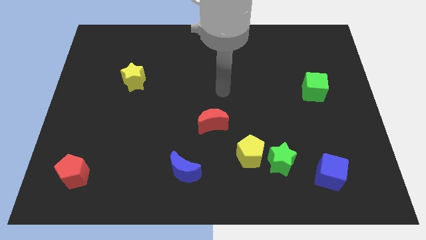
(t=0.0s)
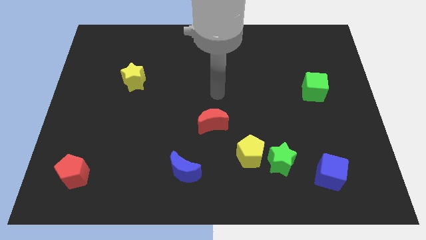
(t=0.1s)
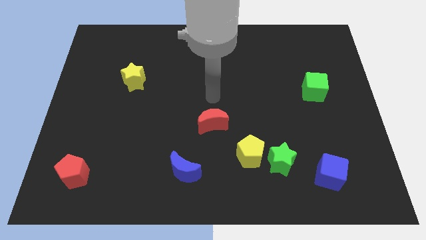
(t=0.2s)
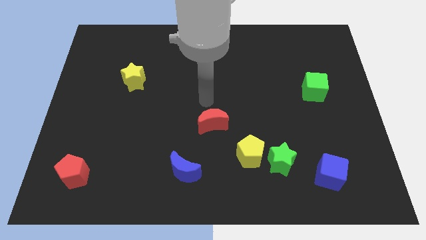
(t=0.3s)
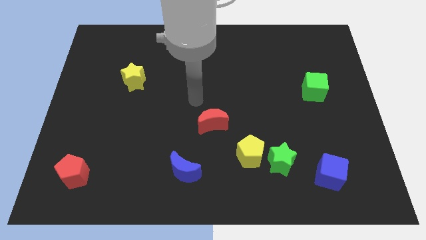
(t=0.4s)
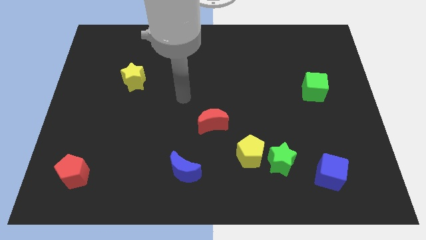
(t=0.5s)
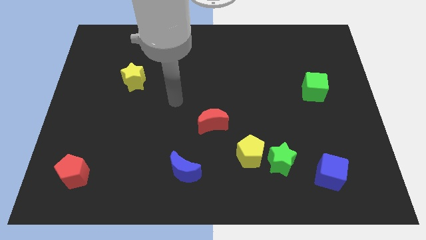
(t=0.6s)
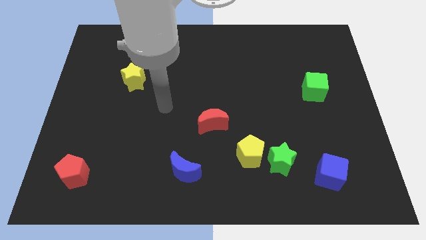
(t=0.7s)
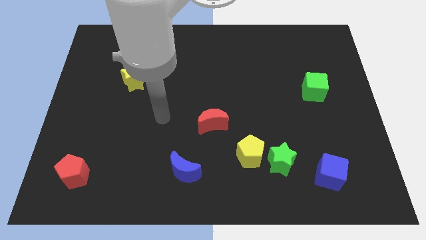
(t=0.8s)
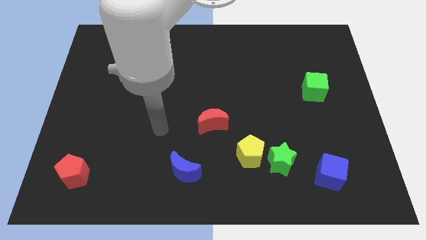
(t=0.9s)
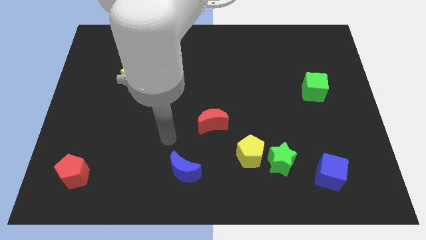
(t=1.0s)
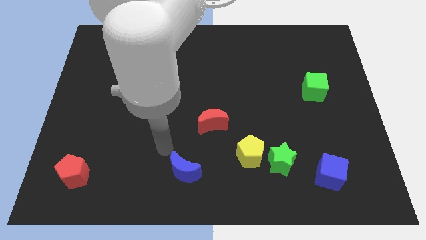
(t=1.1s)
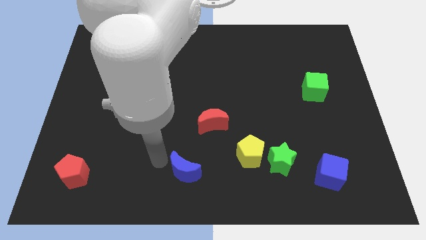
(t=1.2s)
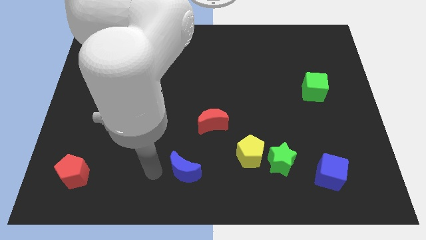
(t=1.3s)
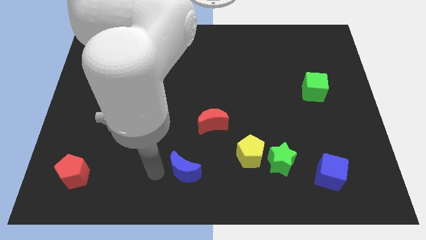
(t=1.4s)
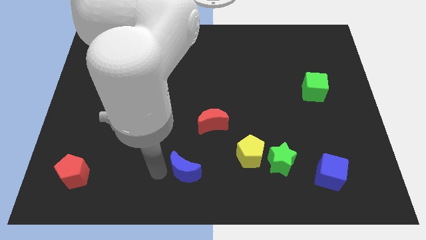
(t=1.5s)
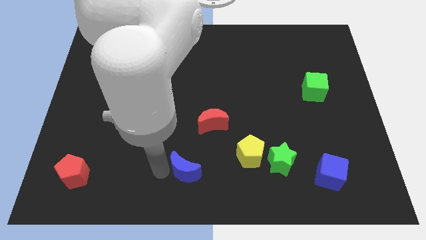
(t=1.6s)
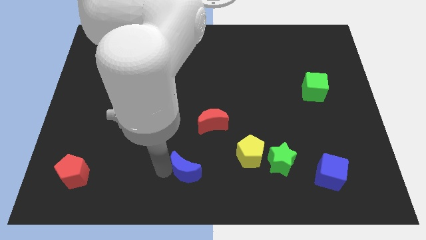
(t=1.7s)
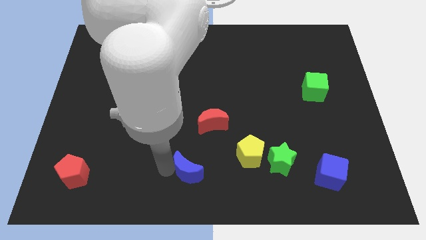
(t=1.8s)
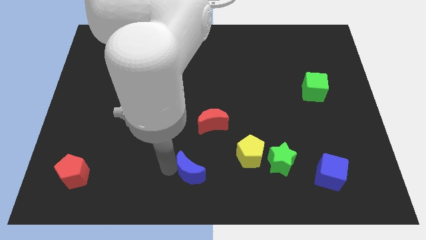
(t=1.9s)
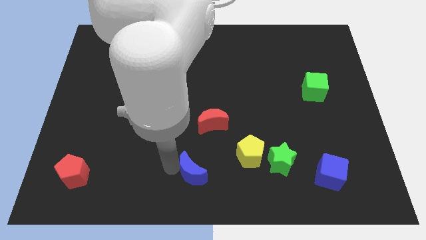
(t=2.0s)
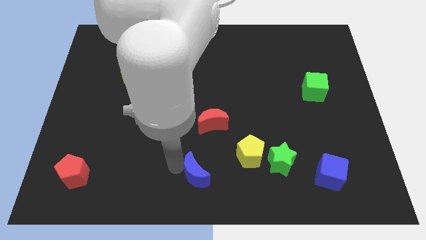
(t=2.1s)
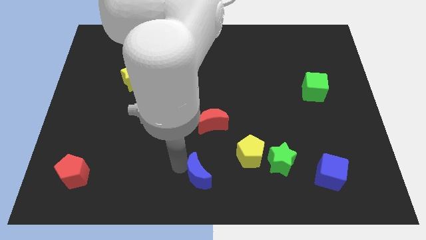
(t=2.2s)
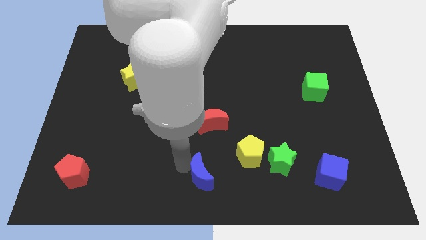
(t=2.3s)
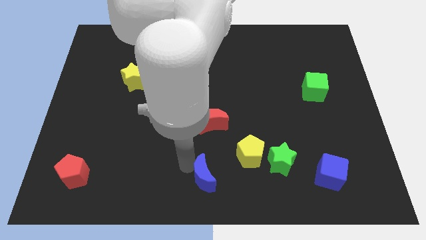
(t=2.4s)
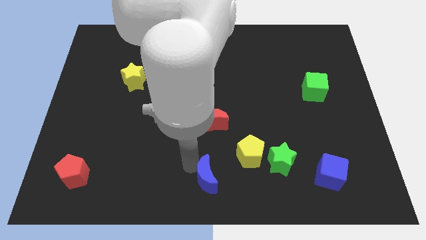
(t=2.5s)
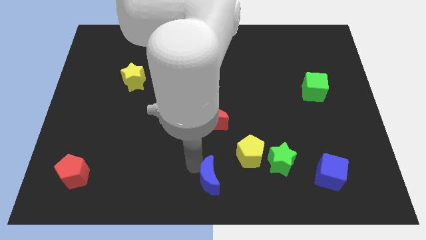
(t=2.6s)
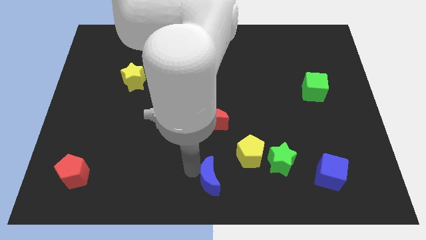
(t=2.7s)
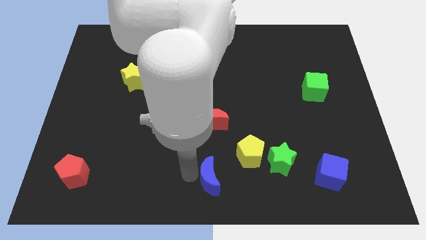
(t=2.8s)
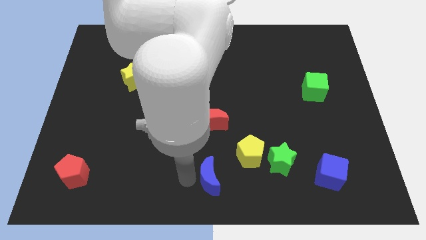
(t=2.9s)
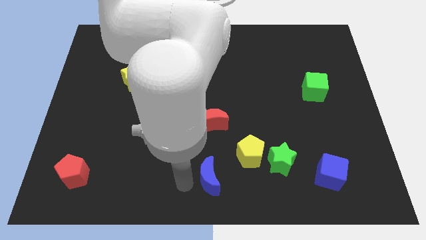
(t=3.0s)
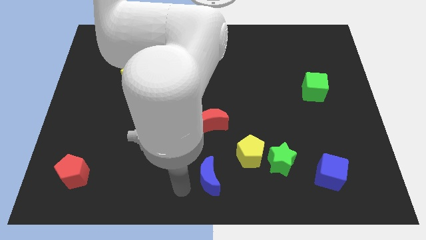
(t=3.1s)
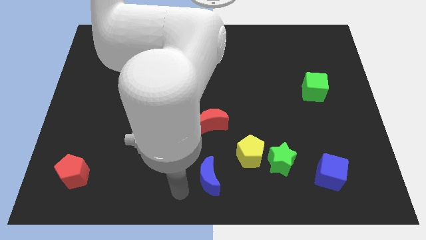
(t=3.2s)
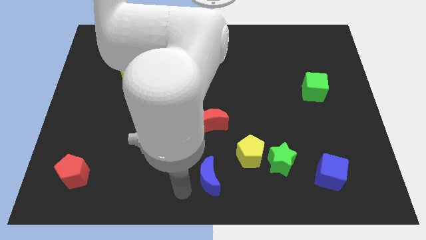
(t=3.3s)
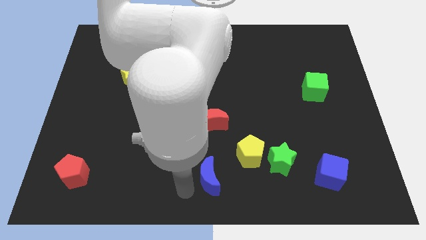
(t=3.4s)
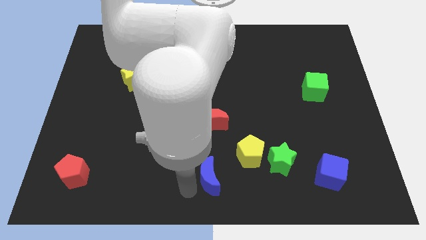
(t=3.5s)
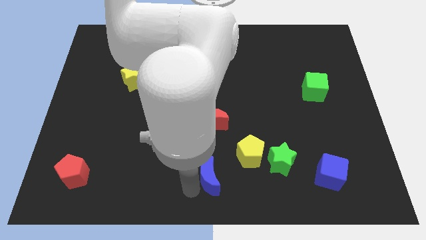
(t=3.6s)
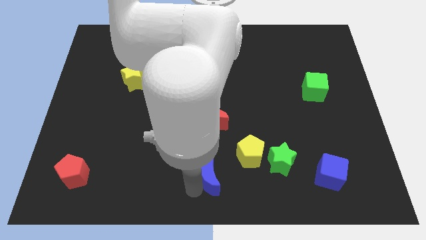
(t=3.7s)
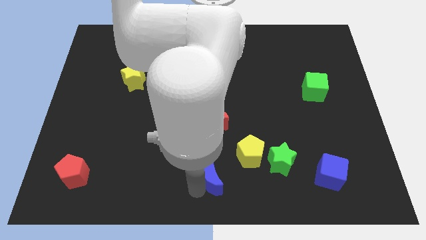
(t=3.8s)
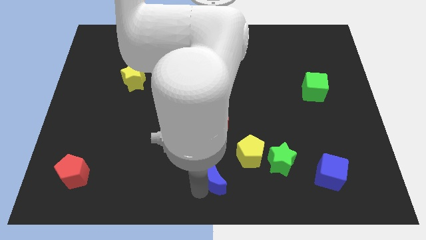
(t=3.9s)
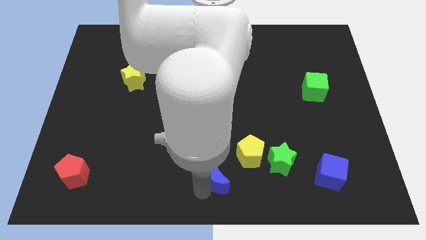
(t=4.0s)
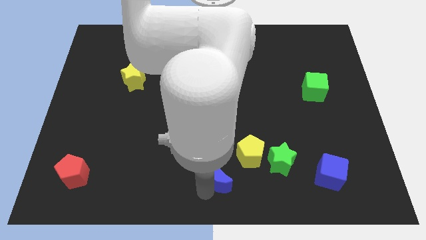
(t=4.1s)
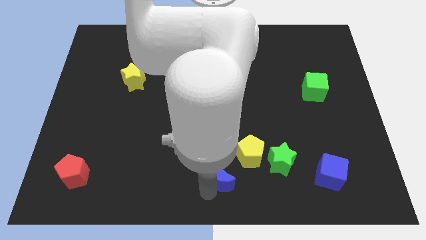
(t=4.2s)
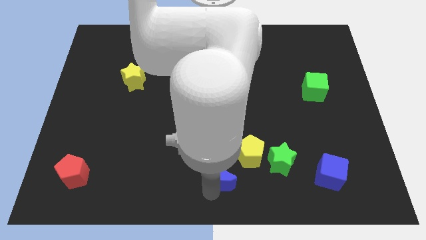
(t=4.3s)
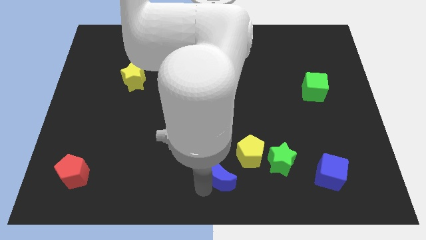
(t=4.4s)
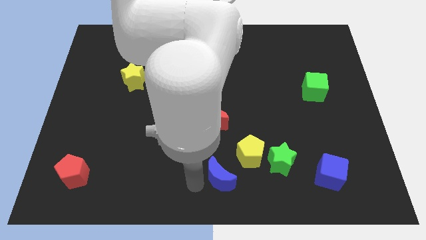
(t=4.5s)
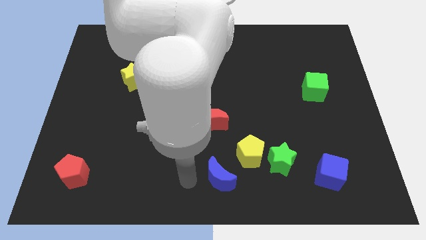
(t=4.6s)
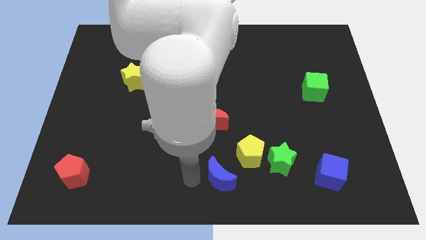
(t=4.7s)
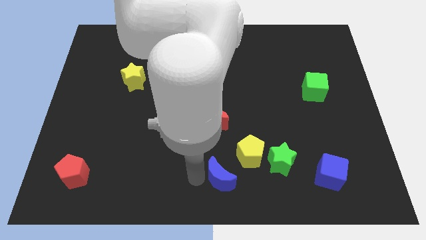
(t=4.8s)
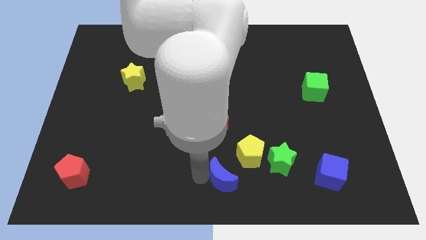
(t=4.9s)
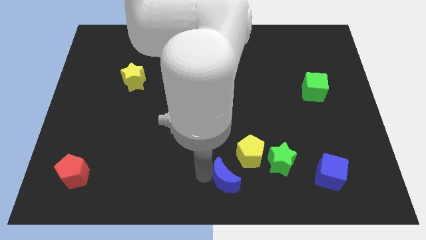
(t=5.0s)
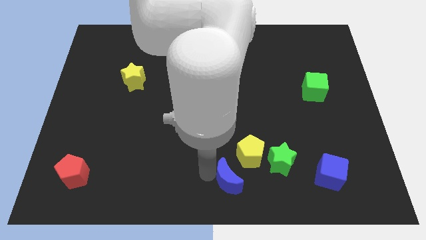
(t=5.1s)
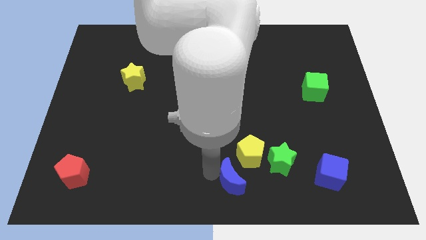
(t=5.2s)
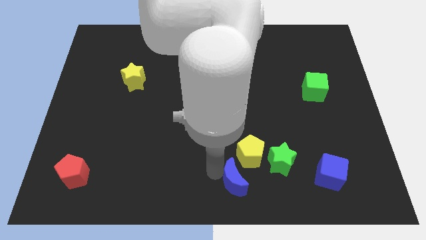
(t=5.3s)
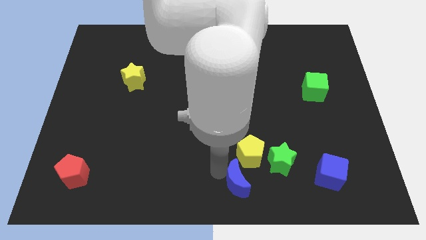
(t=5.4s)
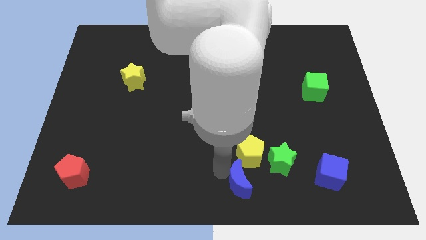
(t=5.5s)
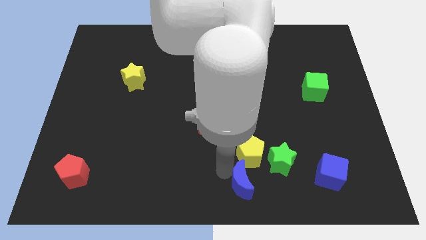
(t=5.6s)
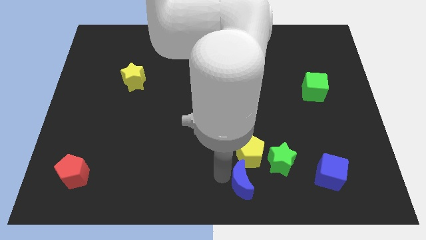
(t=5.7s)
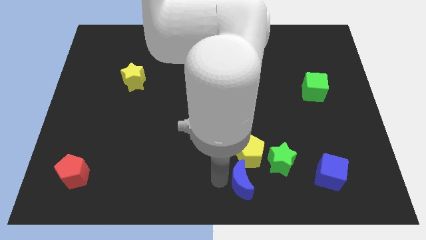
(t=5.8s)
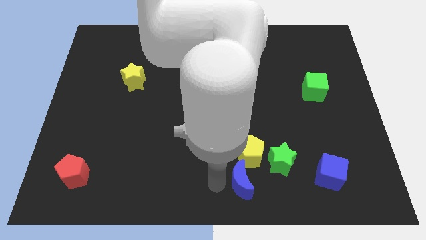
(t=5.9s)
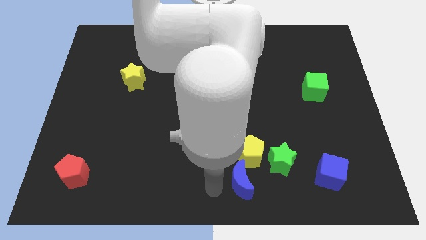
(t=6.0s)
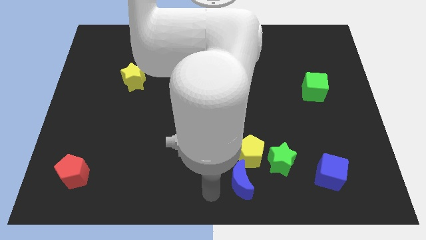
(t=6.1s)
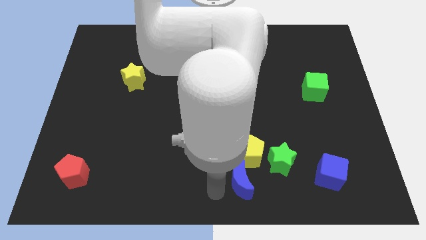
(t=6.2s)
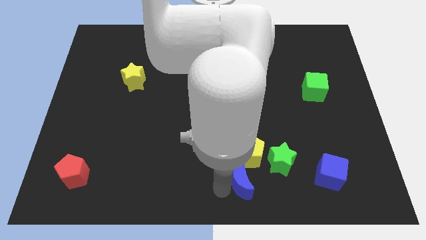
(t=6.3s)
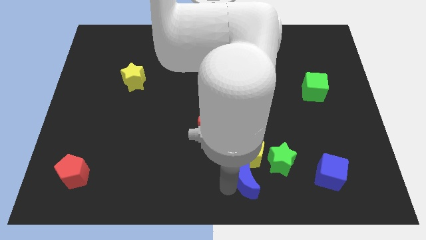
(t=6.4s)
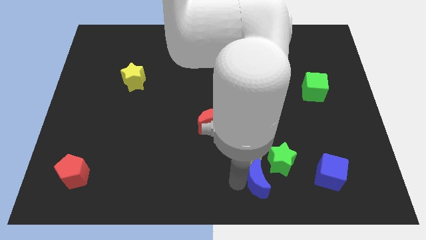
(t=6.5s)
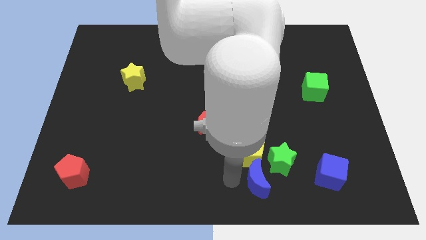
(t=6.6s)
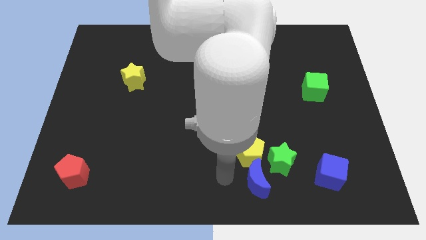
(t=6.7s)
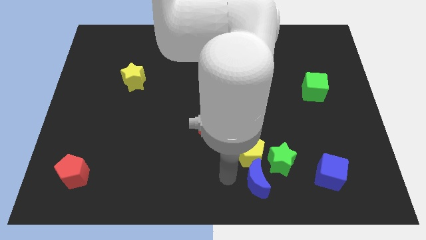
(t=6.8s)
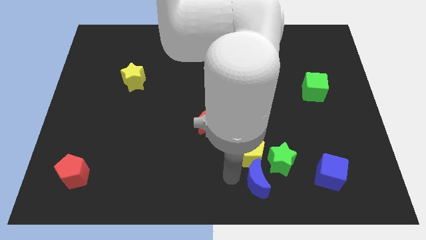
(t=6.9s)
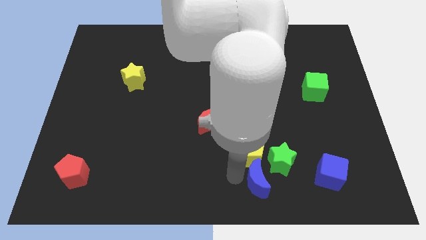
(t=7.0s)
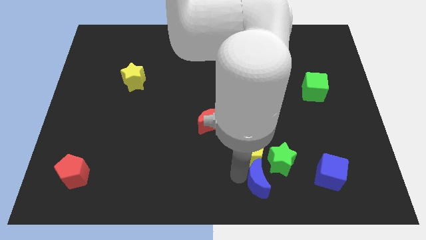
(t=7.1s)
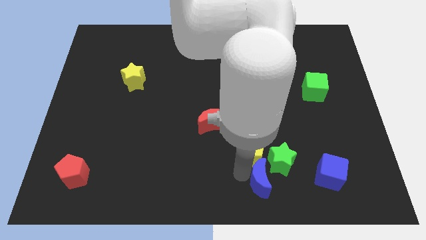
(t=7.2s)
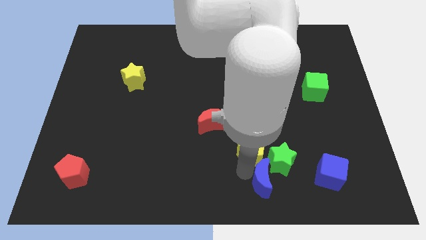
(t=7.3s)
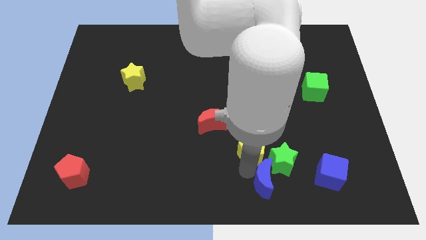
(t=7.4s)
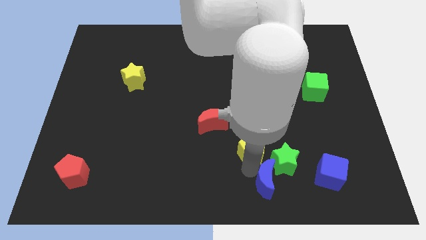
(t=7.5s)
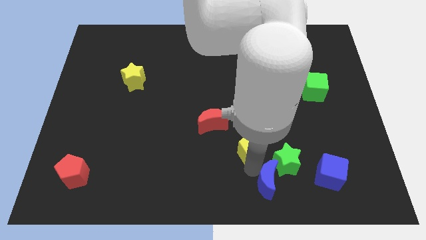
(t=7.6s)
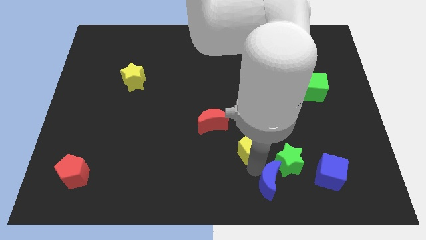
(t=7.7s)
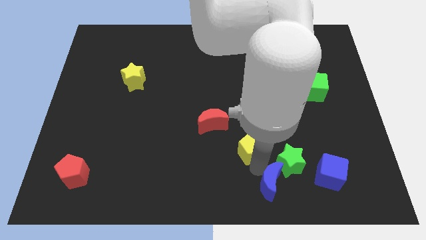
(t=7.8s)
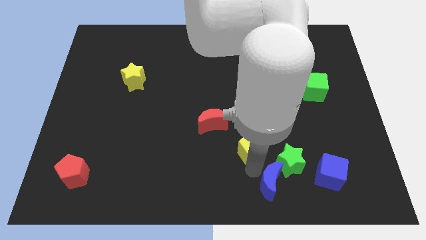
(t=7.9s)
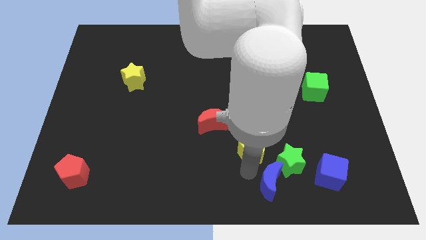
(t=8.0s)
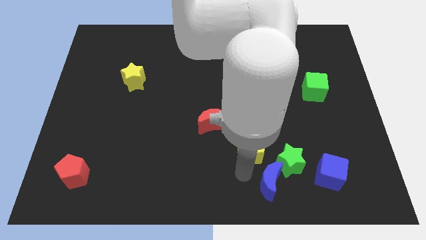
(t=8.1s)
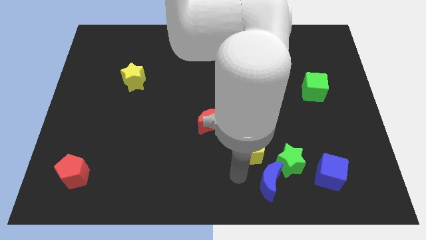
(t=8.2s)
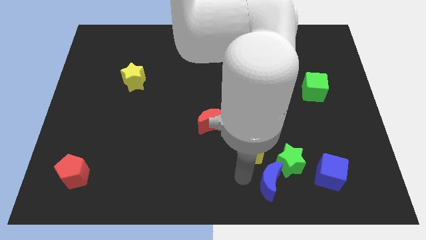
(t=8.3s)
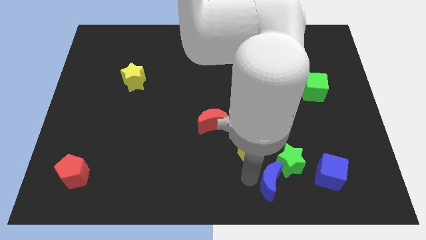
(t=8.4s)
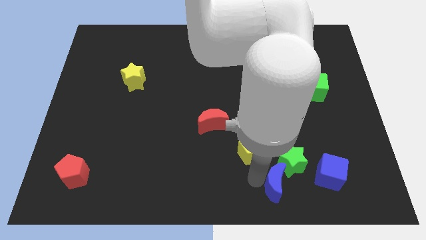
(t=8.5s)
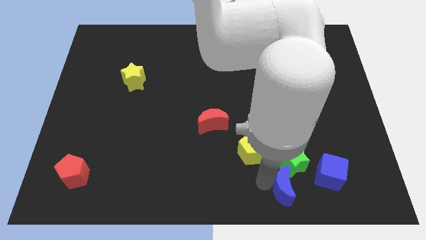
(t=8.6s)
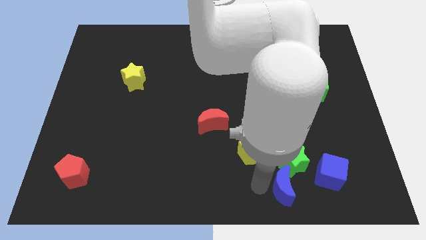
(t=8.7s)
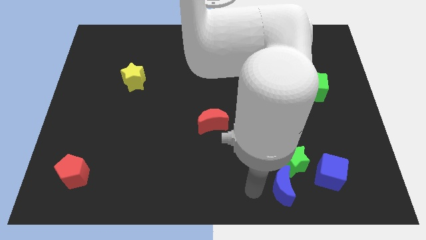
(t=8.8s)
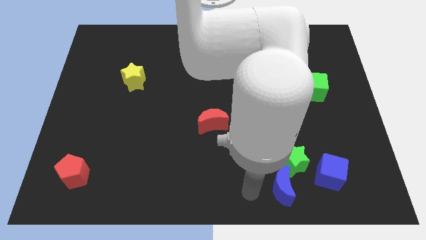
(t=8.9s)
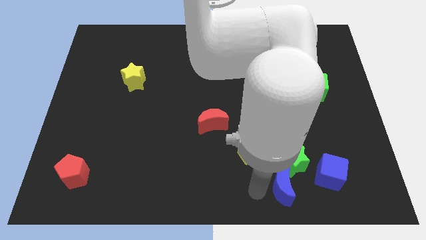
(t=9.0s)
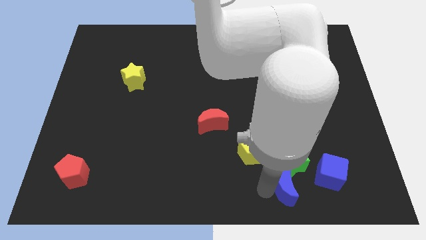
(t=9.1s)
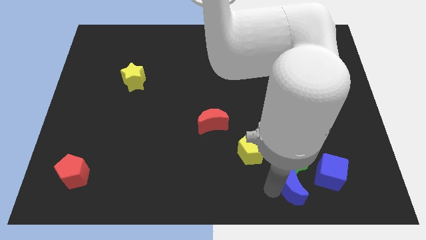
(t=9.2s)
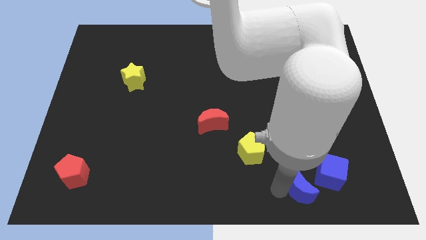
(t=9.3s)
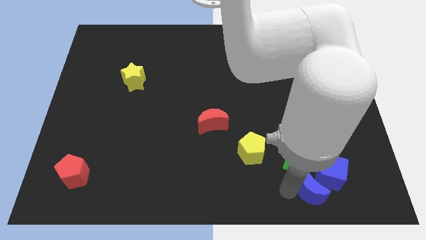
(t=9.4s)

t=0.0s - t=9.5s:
move the blue moon towards the blue cube
